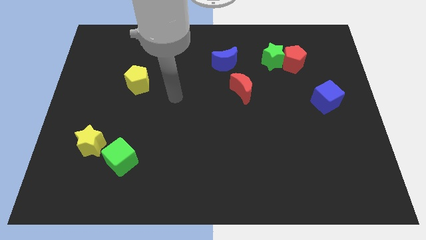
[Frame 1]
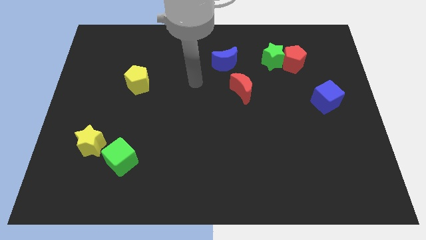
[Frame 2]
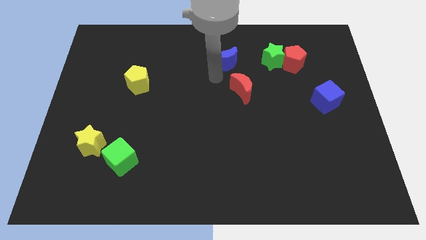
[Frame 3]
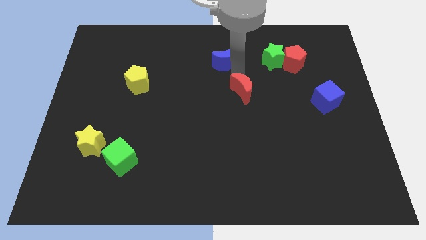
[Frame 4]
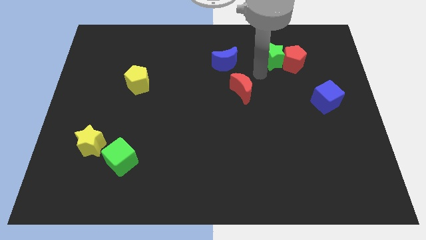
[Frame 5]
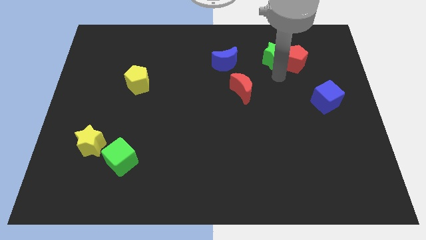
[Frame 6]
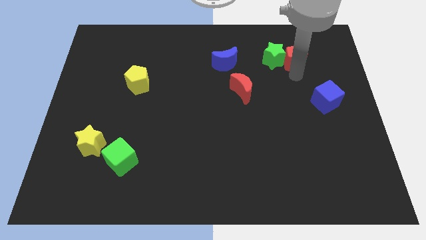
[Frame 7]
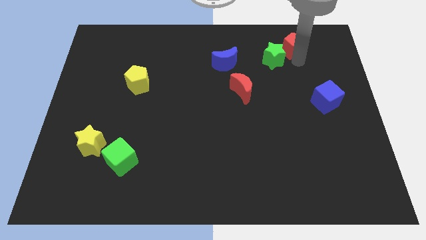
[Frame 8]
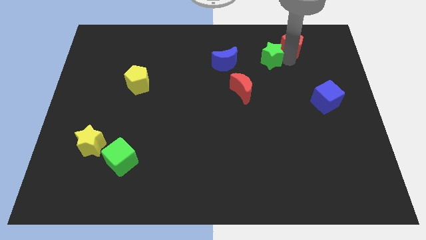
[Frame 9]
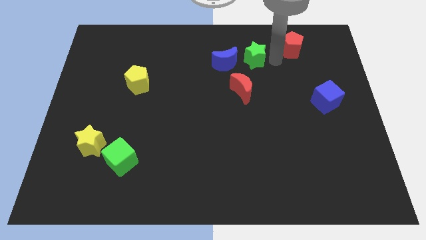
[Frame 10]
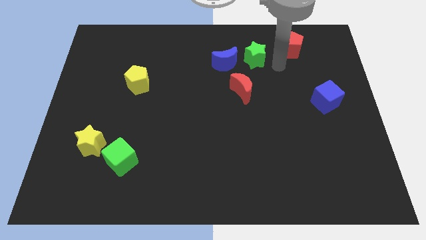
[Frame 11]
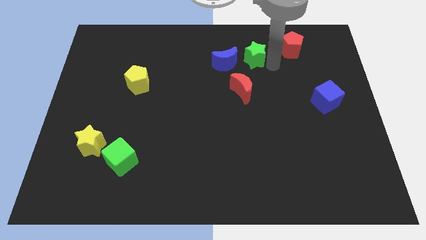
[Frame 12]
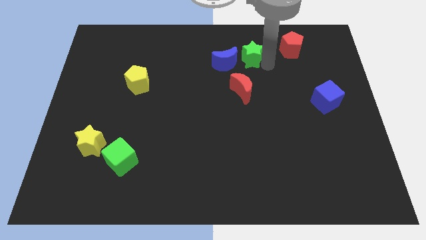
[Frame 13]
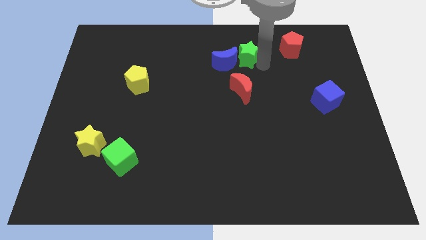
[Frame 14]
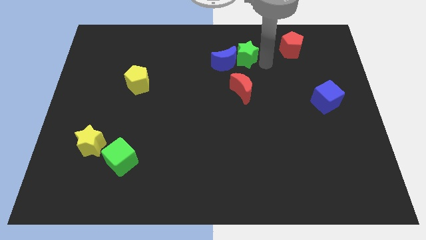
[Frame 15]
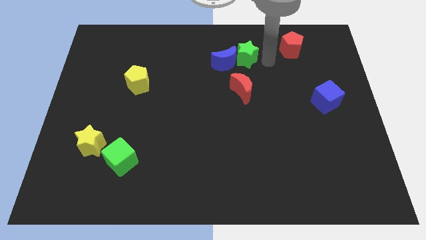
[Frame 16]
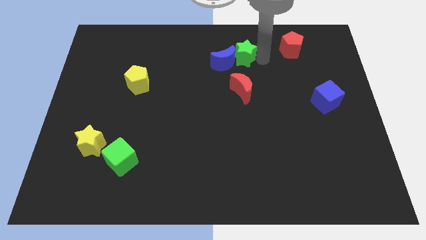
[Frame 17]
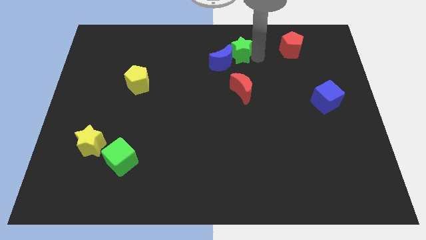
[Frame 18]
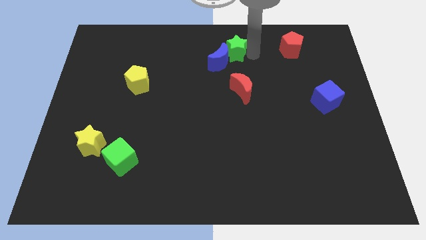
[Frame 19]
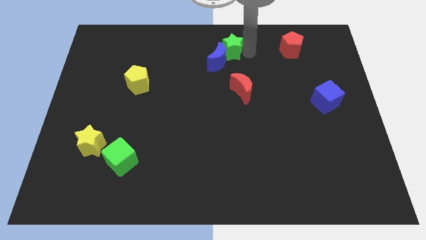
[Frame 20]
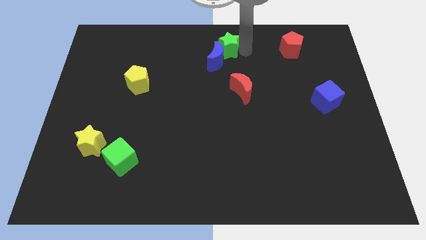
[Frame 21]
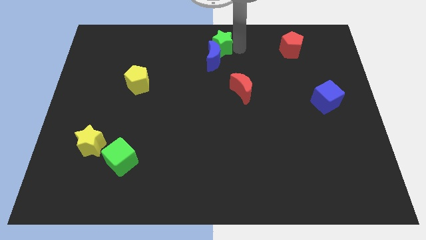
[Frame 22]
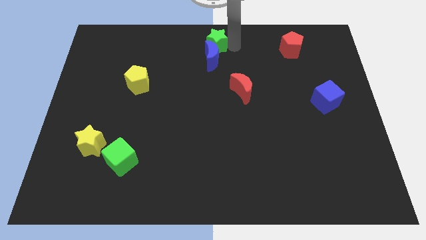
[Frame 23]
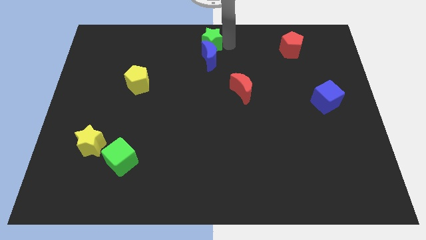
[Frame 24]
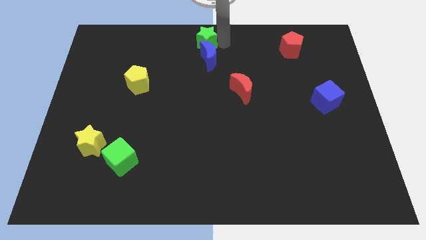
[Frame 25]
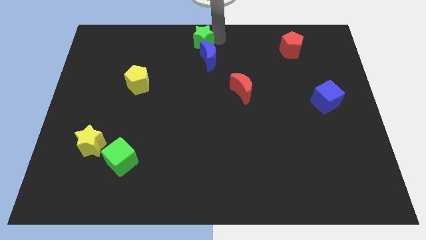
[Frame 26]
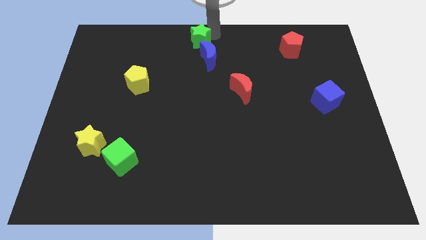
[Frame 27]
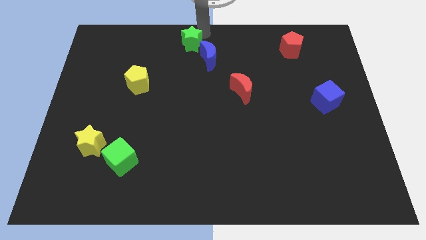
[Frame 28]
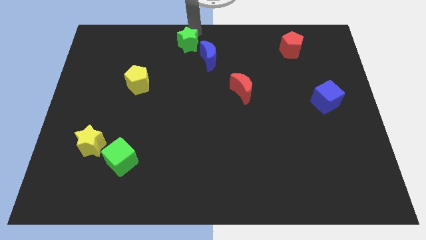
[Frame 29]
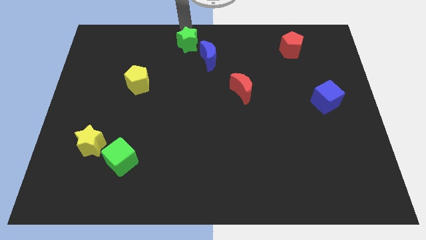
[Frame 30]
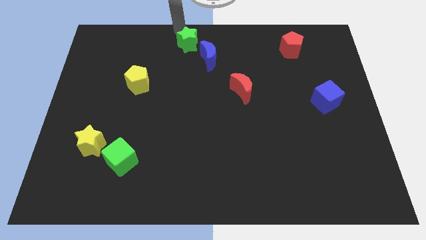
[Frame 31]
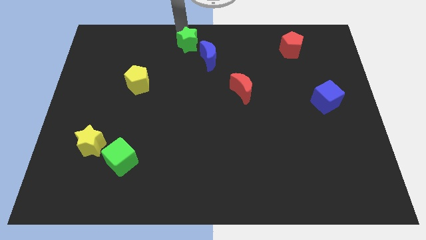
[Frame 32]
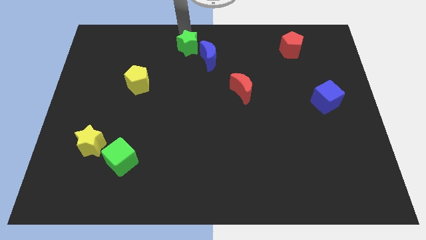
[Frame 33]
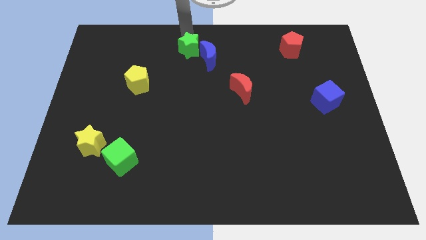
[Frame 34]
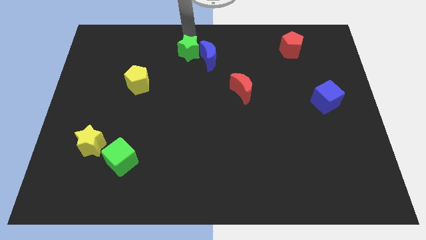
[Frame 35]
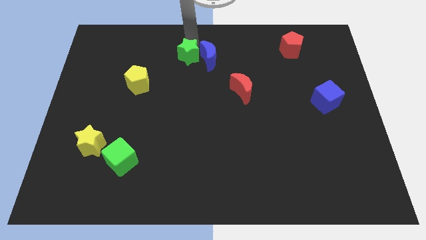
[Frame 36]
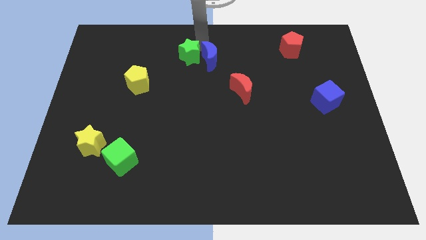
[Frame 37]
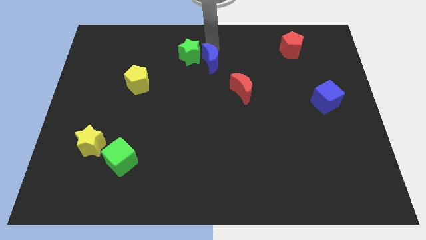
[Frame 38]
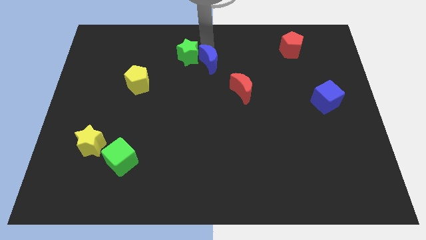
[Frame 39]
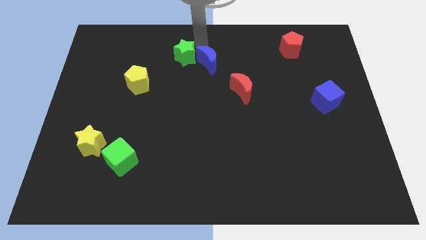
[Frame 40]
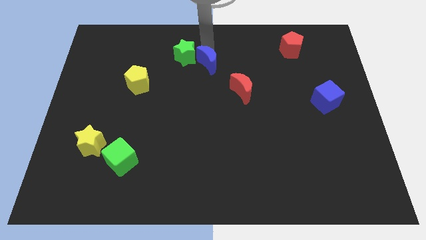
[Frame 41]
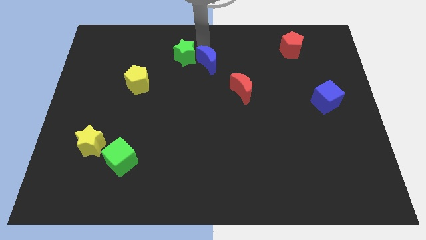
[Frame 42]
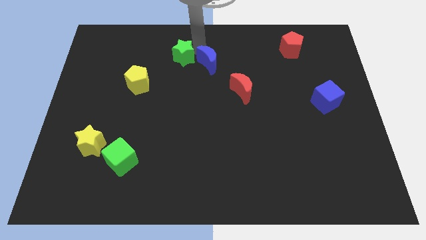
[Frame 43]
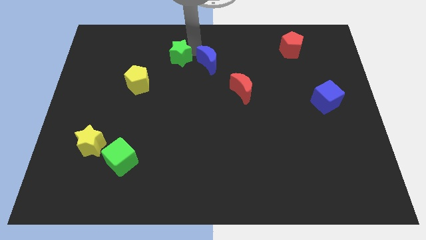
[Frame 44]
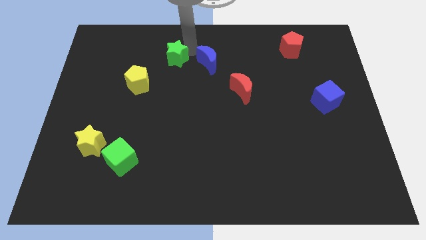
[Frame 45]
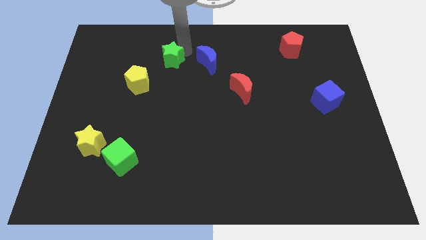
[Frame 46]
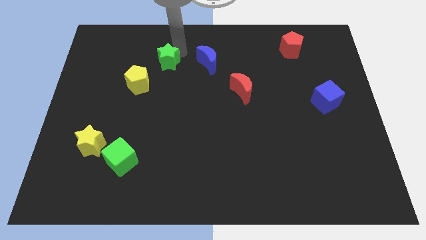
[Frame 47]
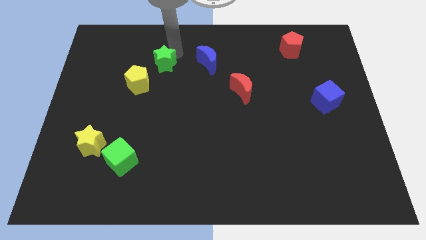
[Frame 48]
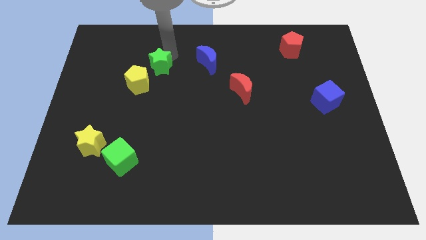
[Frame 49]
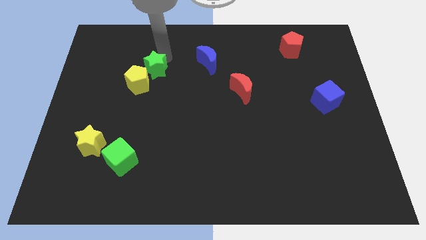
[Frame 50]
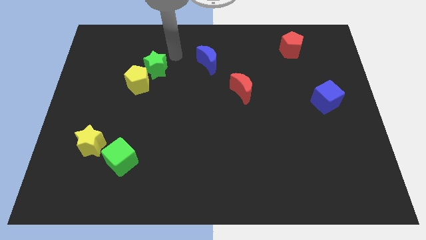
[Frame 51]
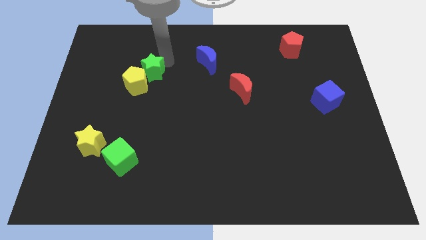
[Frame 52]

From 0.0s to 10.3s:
put the green star towards the yellow pentagon

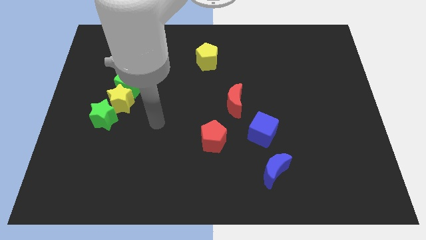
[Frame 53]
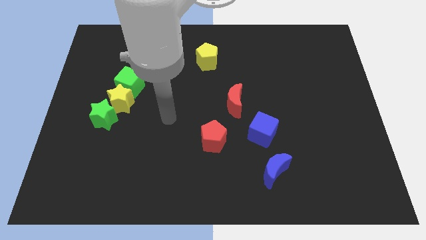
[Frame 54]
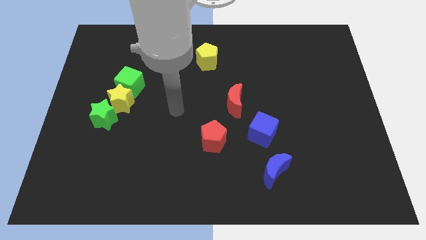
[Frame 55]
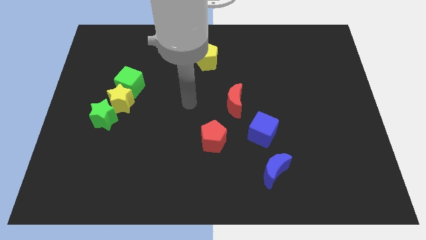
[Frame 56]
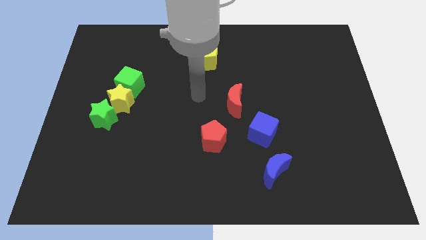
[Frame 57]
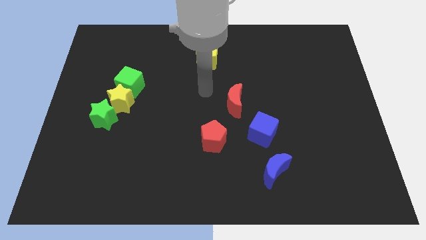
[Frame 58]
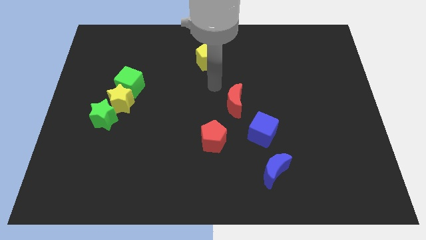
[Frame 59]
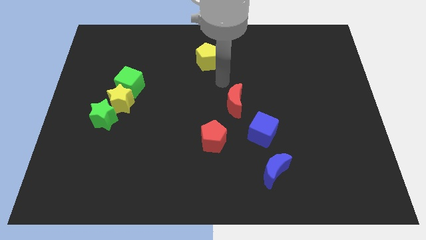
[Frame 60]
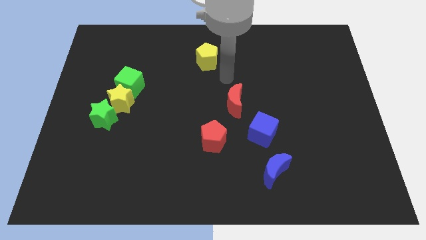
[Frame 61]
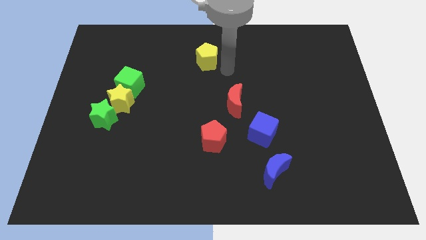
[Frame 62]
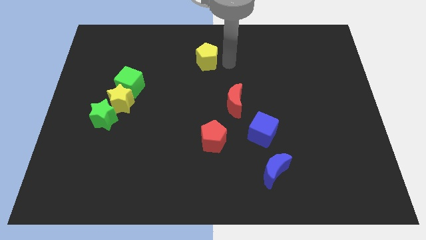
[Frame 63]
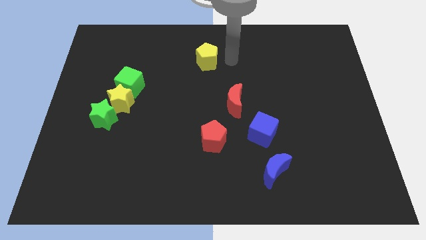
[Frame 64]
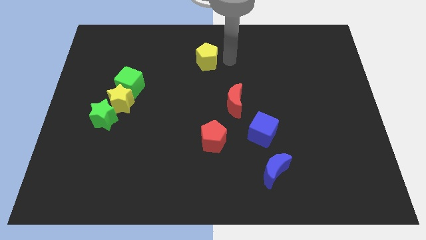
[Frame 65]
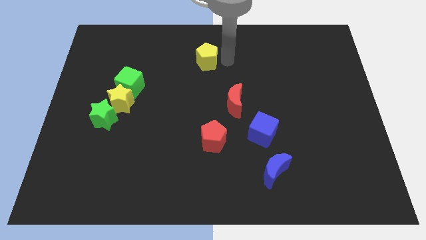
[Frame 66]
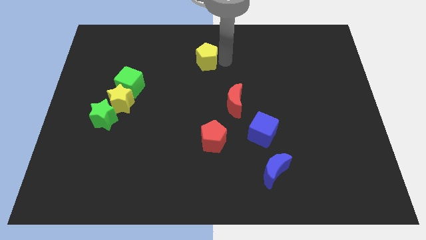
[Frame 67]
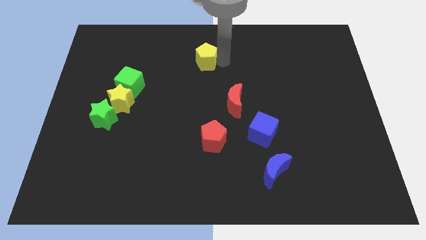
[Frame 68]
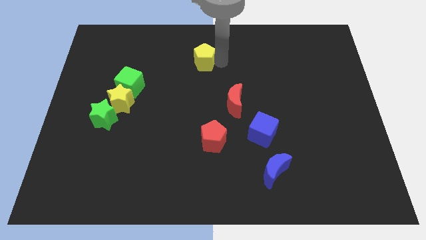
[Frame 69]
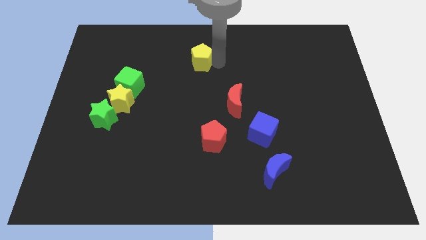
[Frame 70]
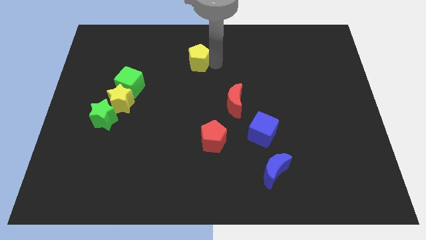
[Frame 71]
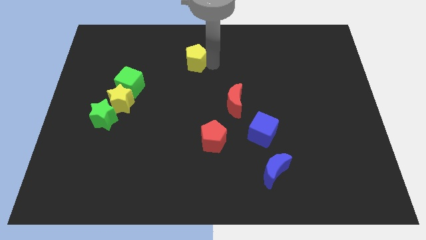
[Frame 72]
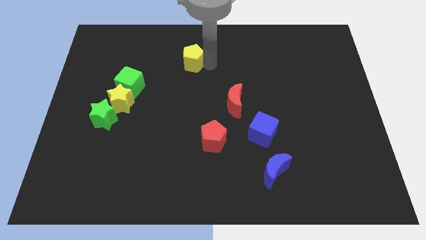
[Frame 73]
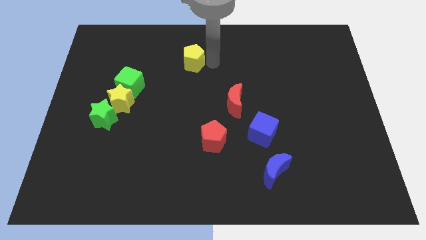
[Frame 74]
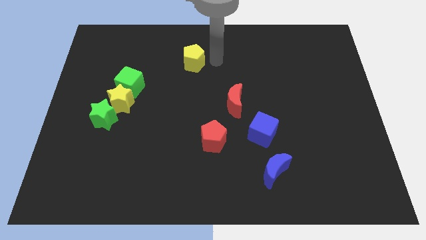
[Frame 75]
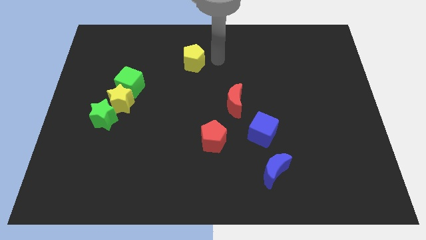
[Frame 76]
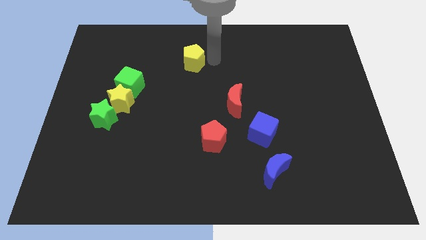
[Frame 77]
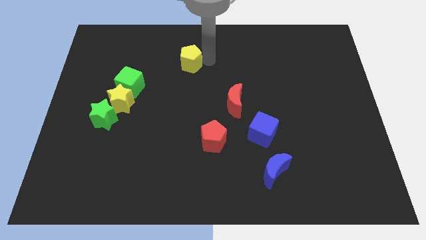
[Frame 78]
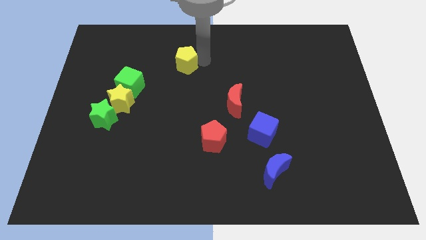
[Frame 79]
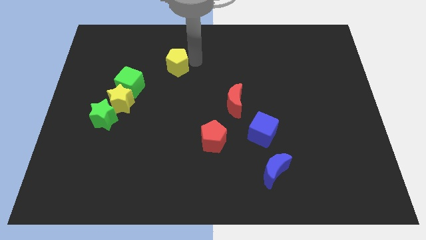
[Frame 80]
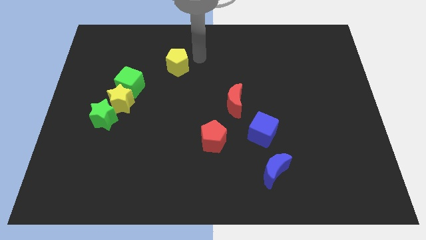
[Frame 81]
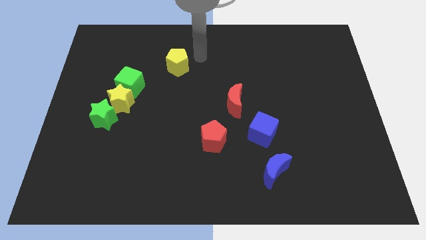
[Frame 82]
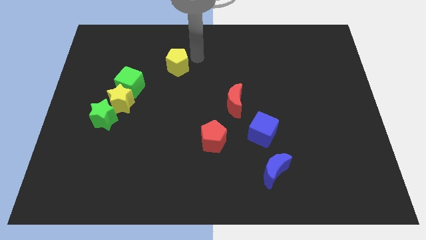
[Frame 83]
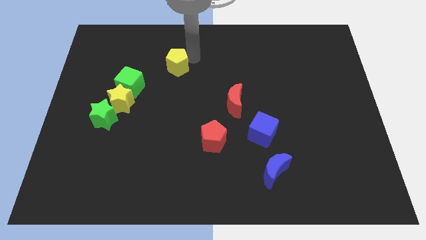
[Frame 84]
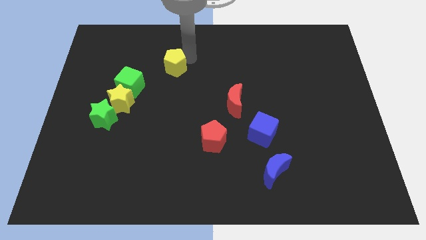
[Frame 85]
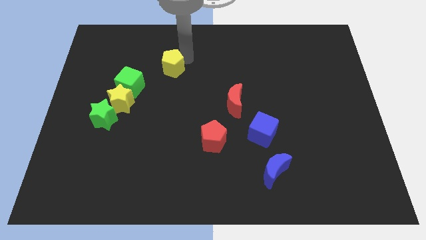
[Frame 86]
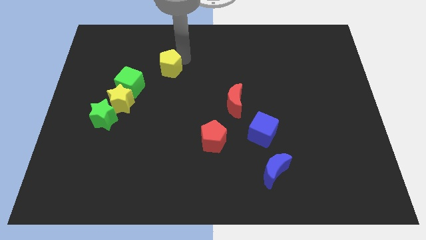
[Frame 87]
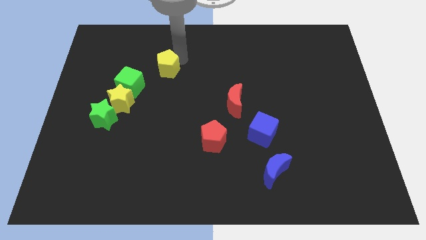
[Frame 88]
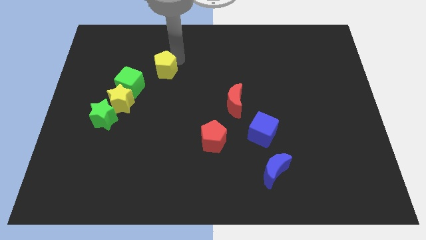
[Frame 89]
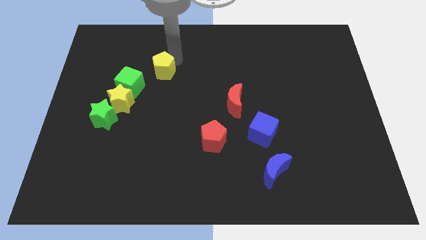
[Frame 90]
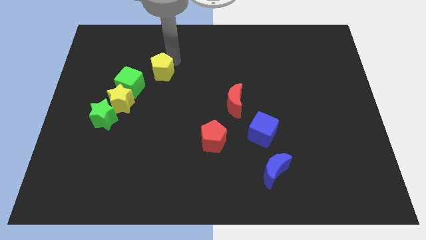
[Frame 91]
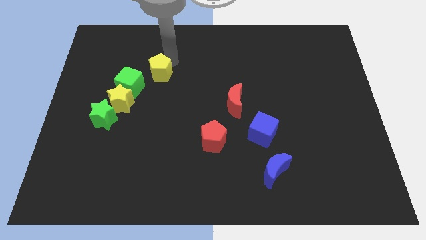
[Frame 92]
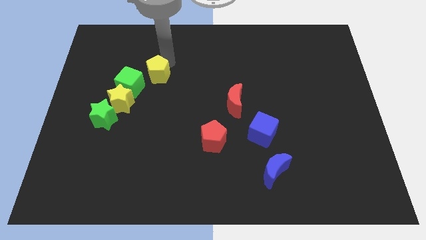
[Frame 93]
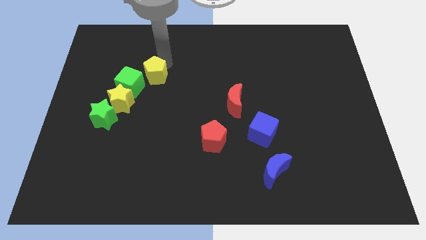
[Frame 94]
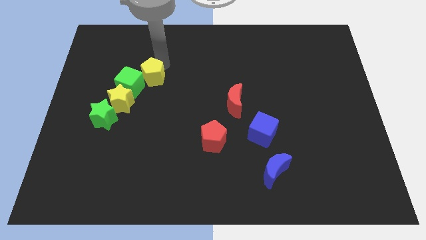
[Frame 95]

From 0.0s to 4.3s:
slide the yellow pentagon towards the green cube
